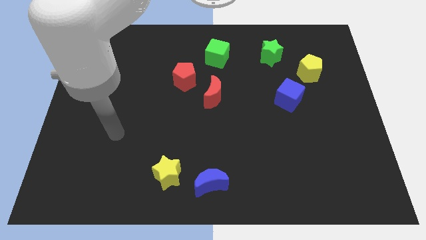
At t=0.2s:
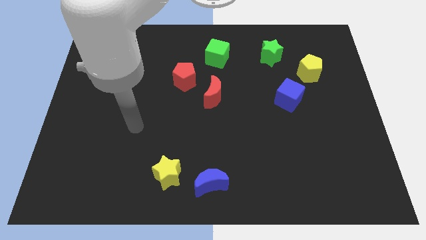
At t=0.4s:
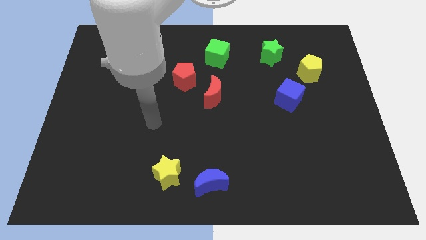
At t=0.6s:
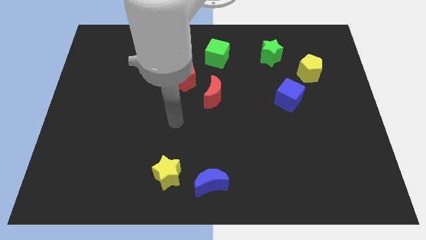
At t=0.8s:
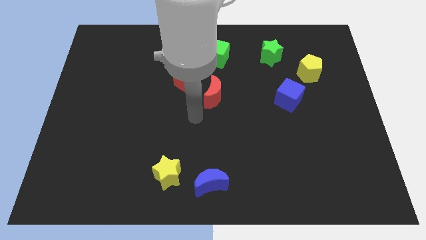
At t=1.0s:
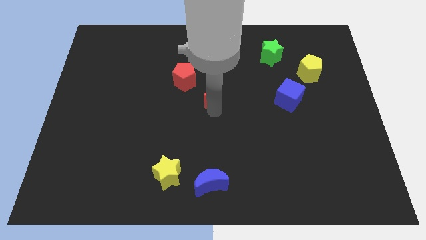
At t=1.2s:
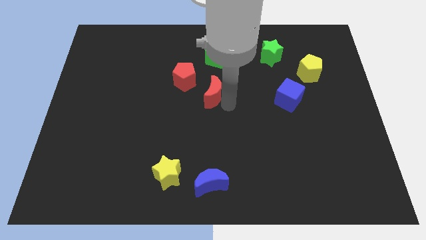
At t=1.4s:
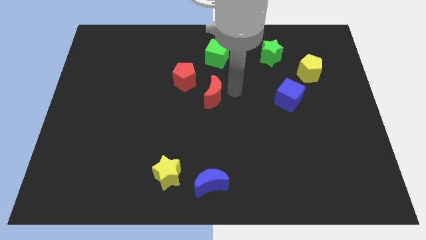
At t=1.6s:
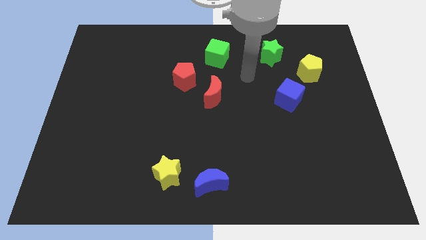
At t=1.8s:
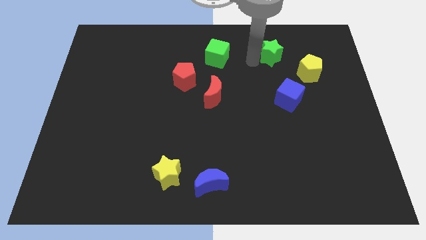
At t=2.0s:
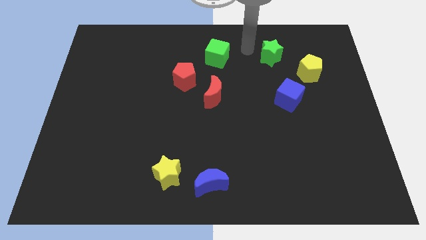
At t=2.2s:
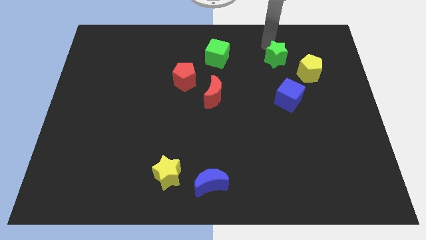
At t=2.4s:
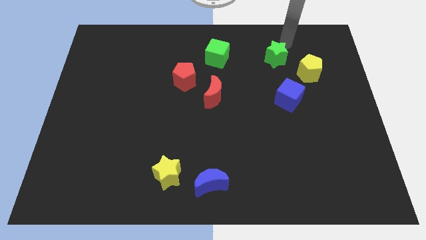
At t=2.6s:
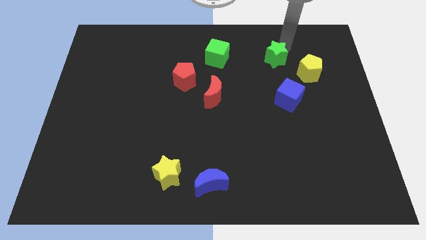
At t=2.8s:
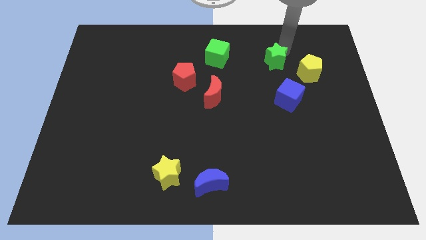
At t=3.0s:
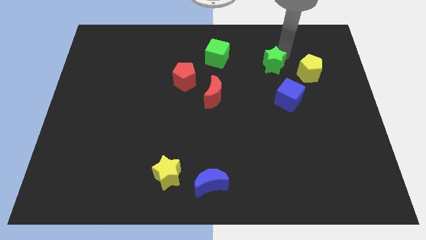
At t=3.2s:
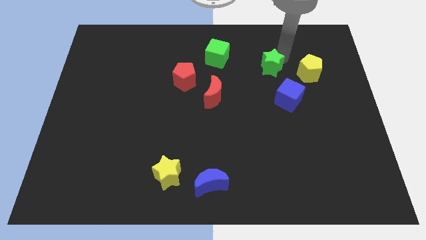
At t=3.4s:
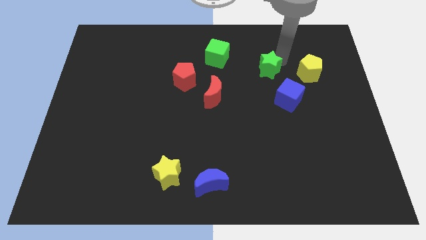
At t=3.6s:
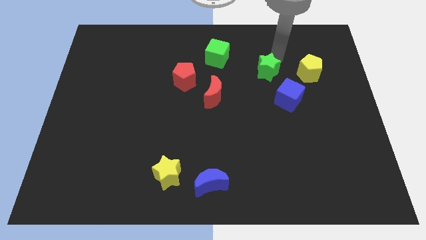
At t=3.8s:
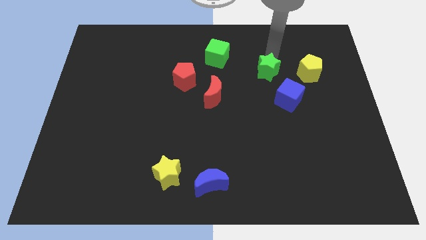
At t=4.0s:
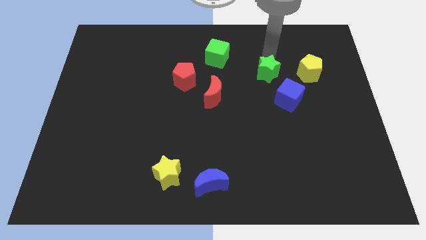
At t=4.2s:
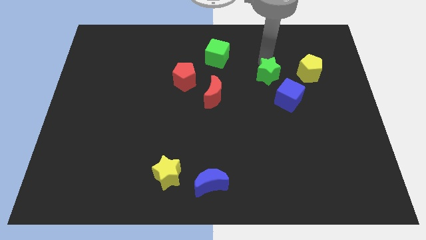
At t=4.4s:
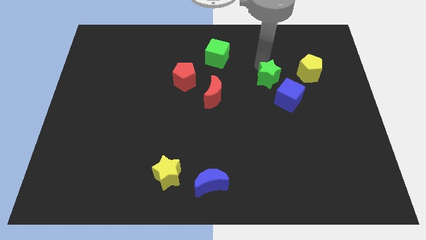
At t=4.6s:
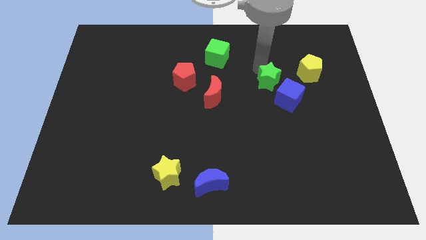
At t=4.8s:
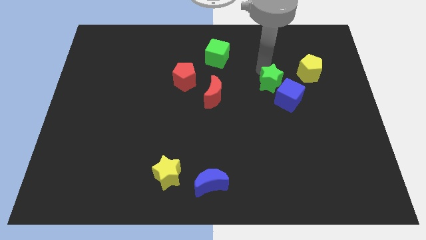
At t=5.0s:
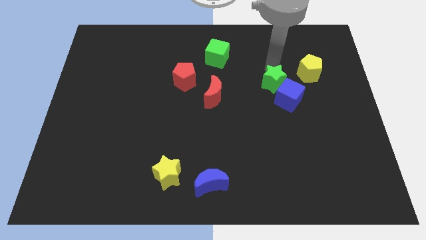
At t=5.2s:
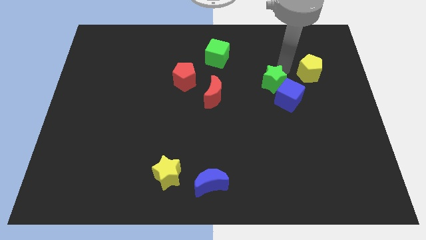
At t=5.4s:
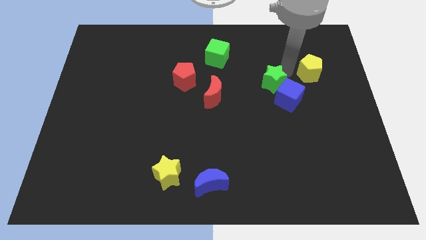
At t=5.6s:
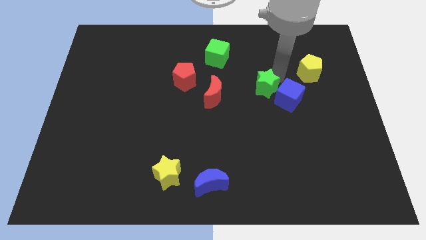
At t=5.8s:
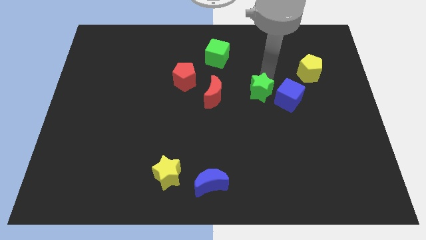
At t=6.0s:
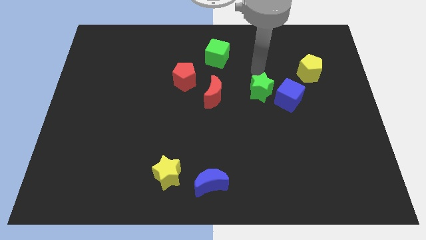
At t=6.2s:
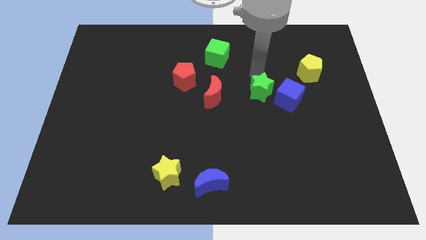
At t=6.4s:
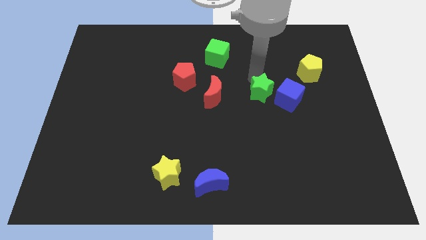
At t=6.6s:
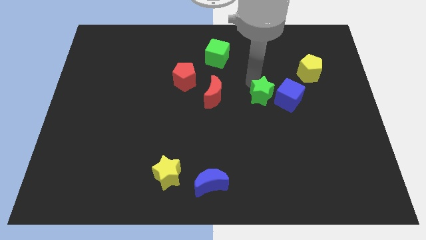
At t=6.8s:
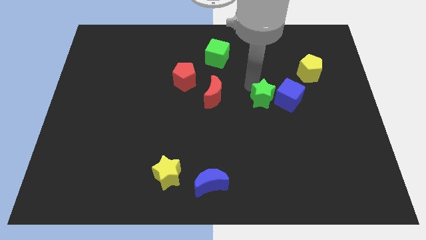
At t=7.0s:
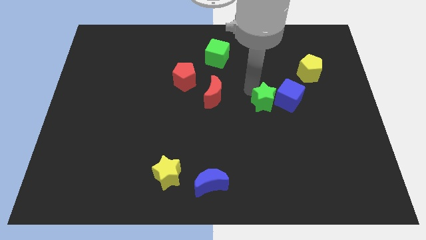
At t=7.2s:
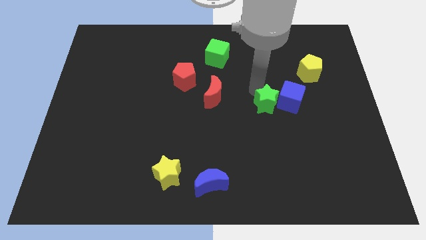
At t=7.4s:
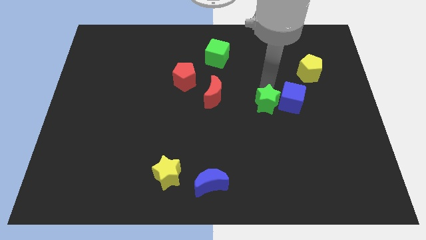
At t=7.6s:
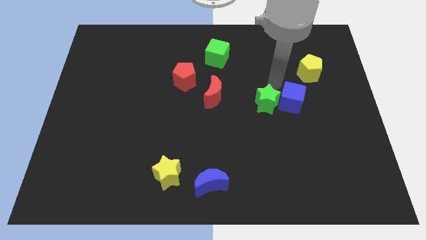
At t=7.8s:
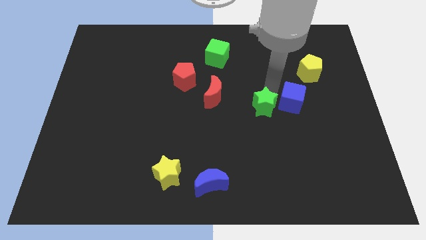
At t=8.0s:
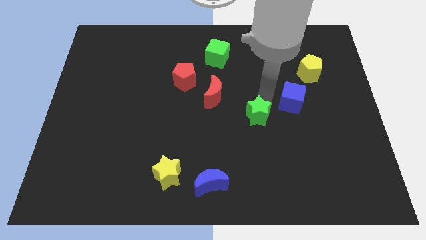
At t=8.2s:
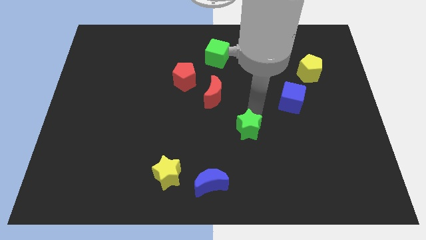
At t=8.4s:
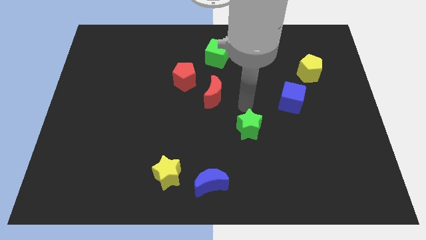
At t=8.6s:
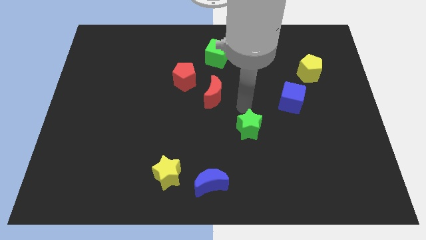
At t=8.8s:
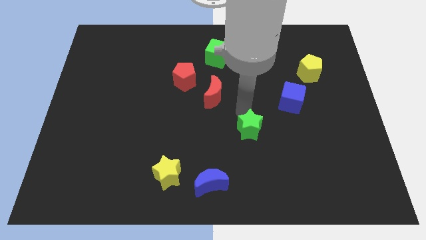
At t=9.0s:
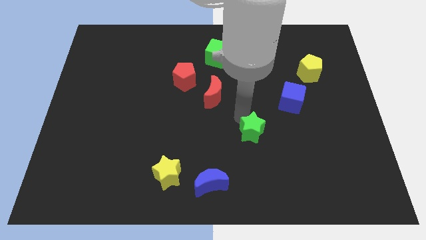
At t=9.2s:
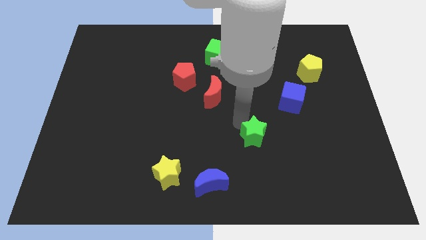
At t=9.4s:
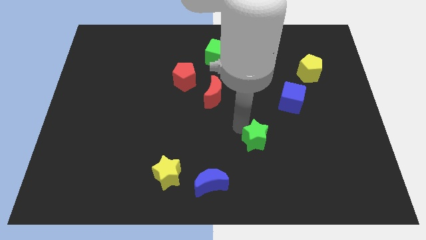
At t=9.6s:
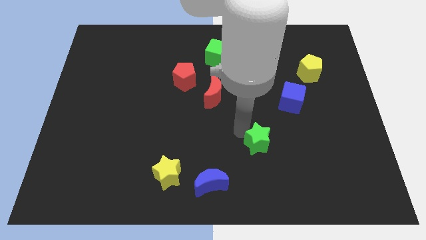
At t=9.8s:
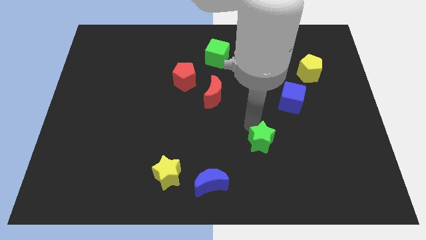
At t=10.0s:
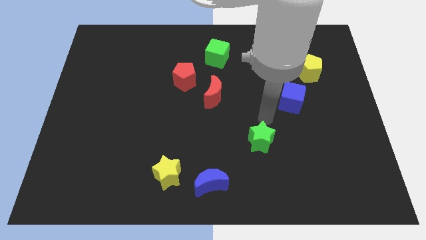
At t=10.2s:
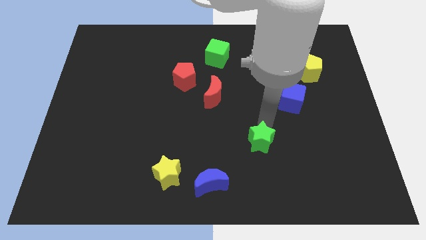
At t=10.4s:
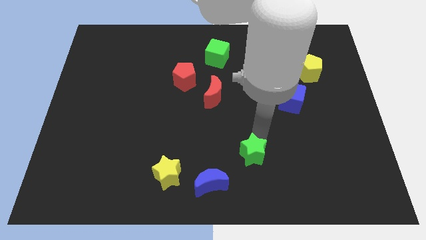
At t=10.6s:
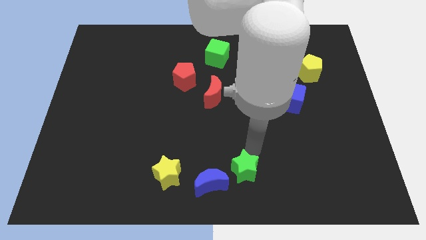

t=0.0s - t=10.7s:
put the green star to the bottom

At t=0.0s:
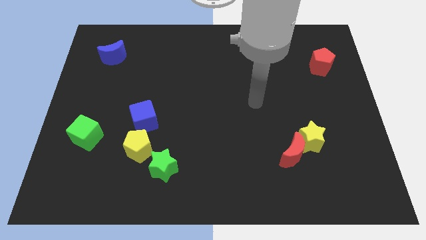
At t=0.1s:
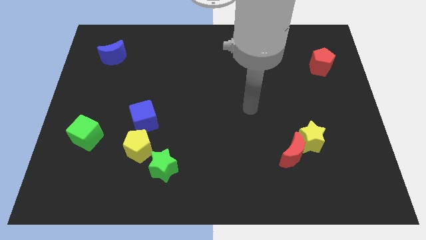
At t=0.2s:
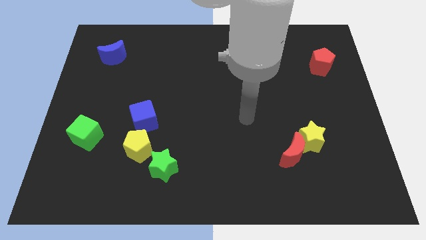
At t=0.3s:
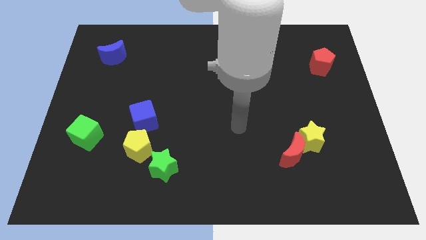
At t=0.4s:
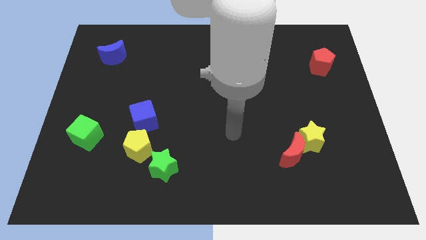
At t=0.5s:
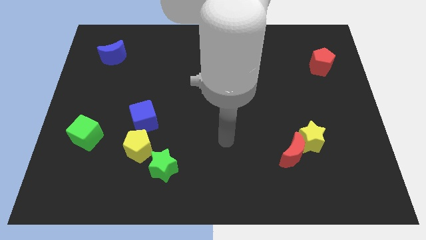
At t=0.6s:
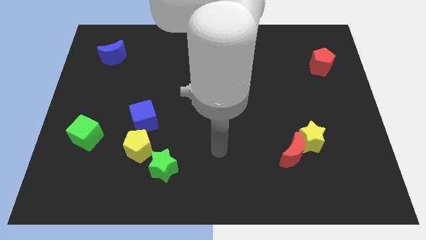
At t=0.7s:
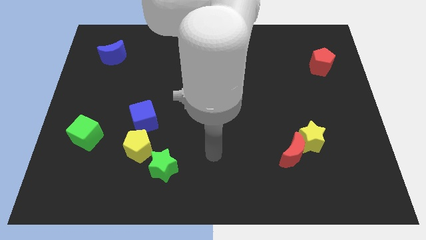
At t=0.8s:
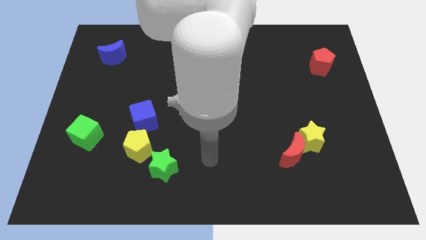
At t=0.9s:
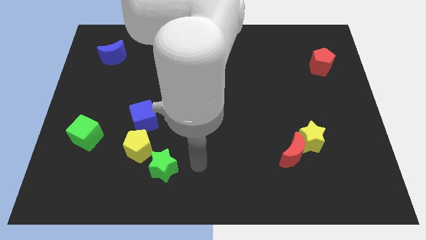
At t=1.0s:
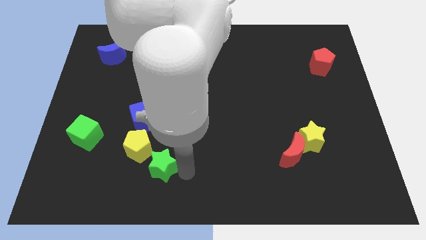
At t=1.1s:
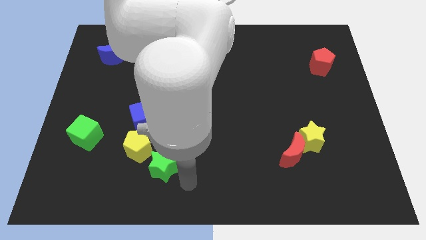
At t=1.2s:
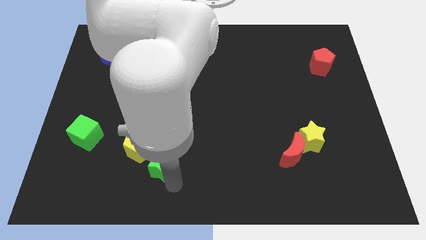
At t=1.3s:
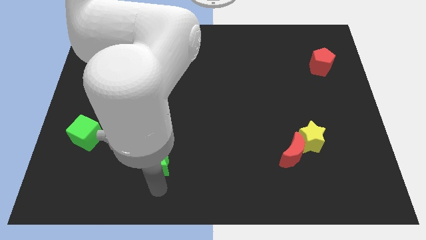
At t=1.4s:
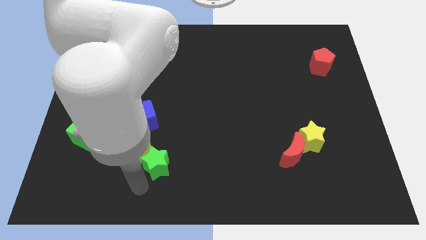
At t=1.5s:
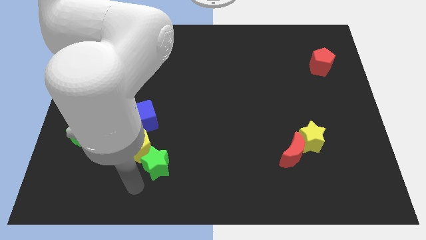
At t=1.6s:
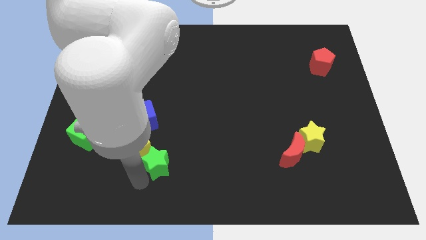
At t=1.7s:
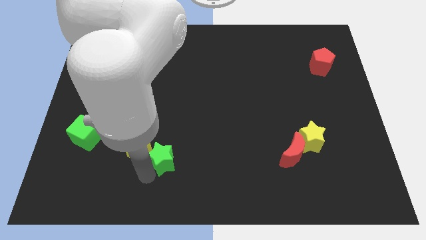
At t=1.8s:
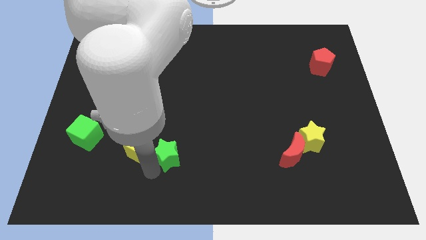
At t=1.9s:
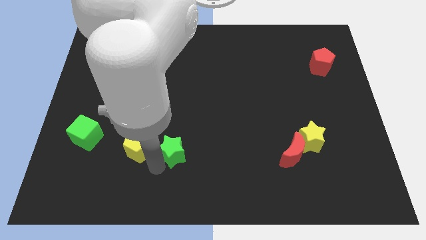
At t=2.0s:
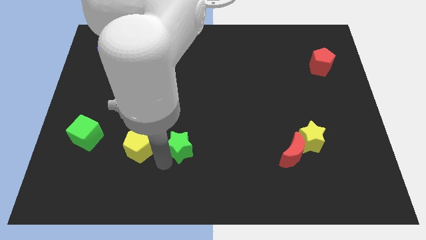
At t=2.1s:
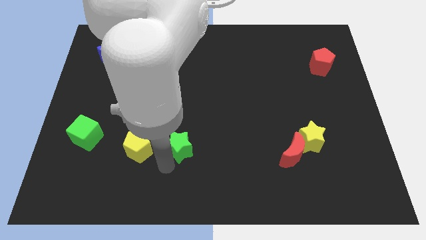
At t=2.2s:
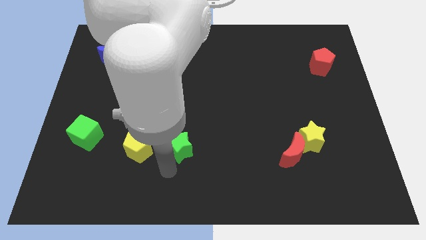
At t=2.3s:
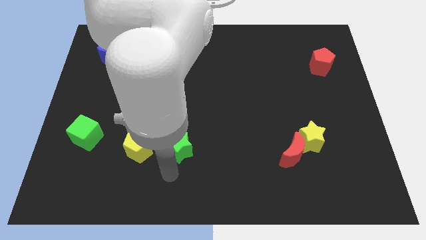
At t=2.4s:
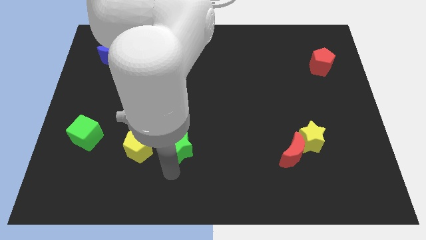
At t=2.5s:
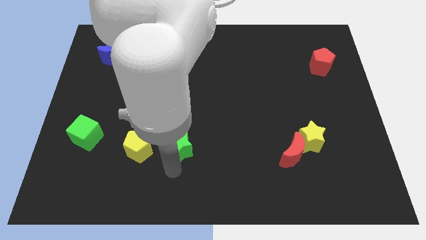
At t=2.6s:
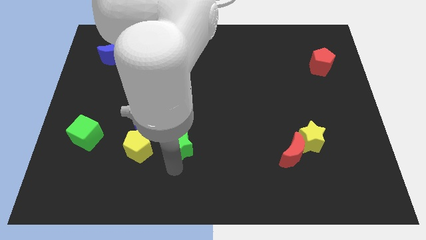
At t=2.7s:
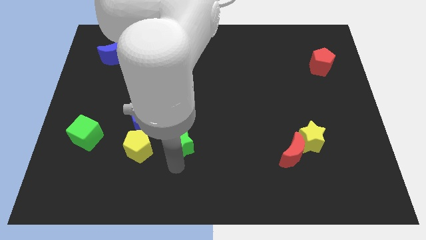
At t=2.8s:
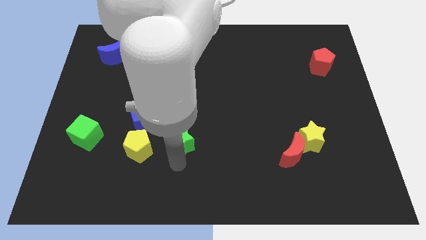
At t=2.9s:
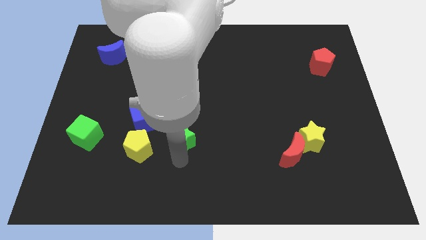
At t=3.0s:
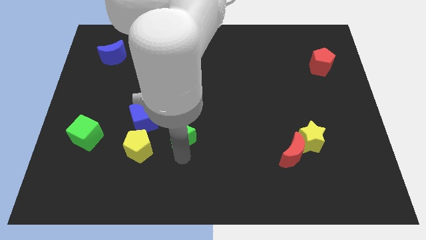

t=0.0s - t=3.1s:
move the green star to the middle
